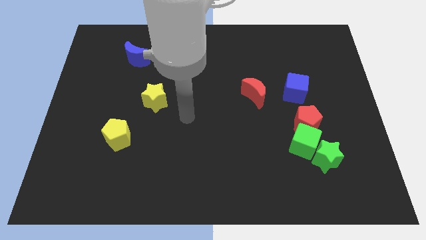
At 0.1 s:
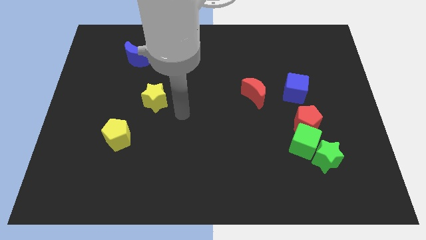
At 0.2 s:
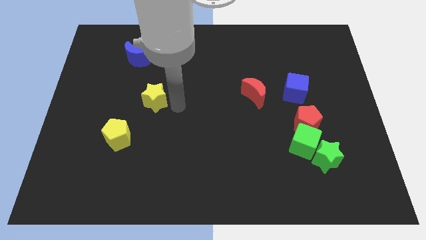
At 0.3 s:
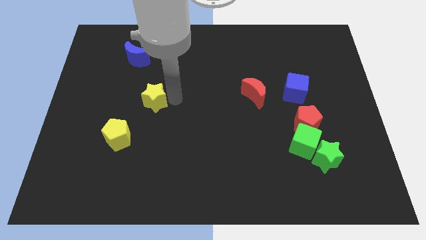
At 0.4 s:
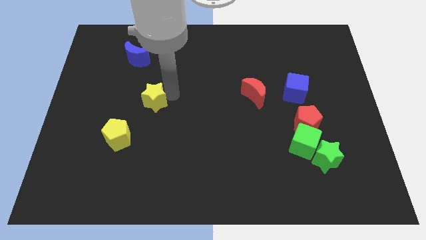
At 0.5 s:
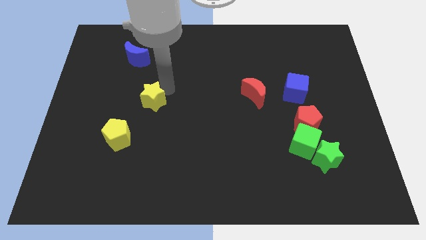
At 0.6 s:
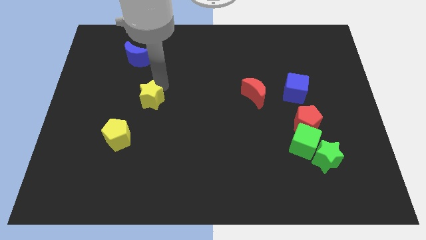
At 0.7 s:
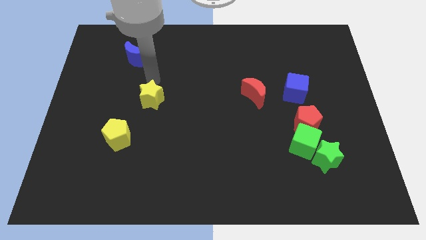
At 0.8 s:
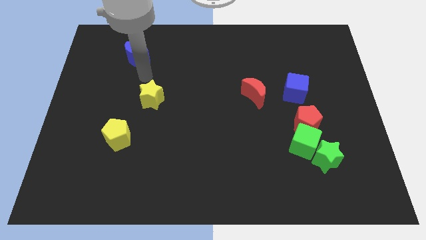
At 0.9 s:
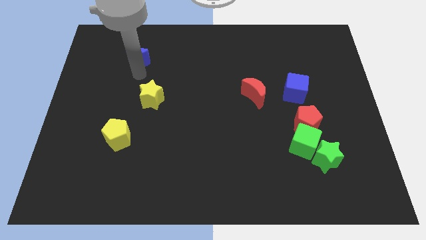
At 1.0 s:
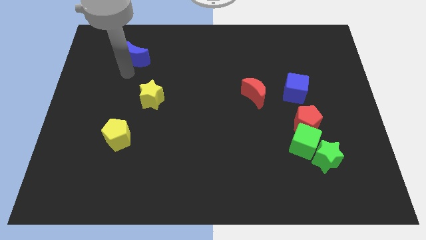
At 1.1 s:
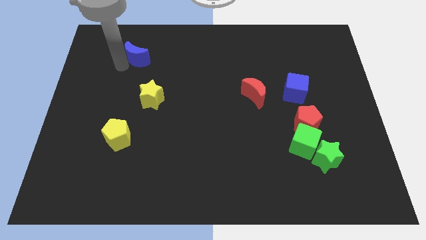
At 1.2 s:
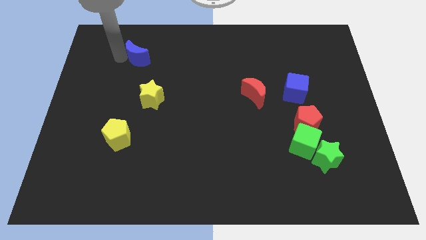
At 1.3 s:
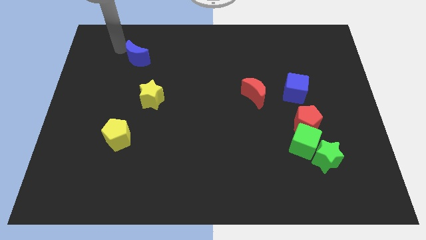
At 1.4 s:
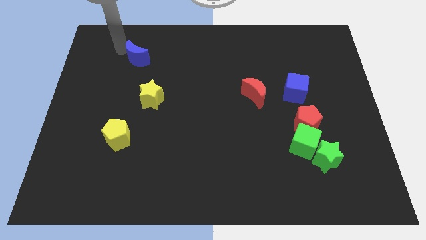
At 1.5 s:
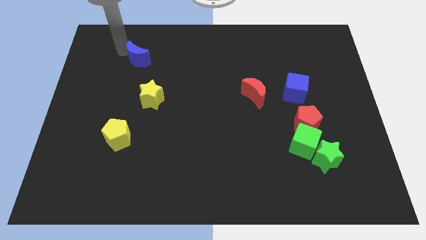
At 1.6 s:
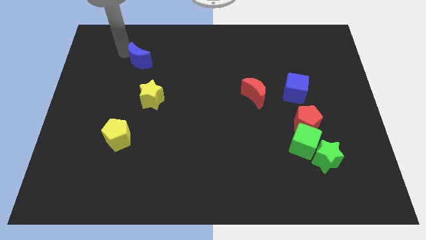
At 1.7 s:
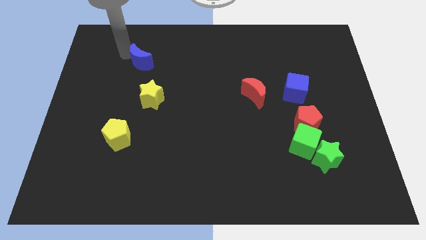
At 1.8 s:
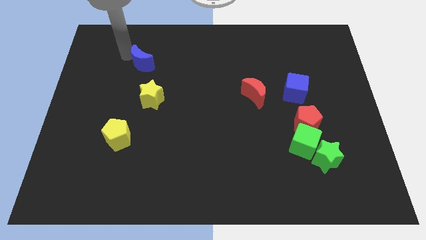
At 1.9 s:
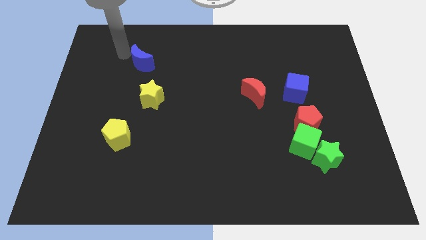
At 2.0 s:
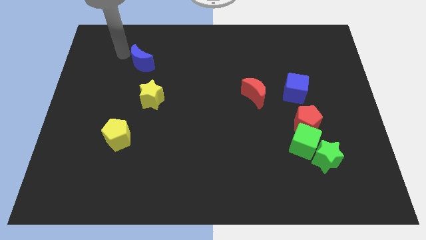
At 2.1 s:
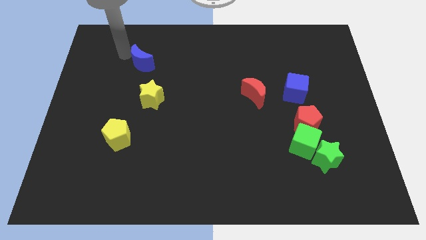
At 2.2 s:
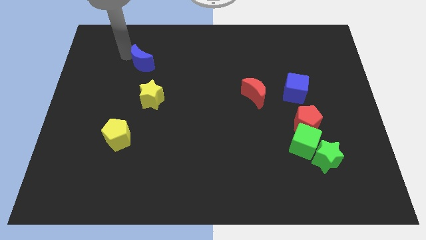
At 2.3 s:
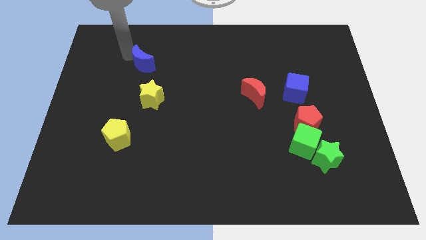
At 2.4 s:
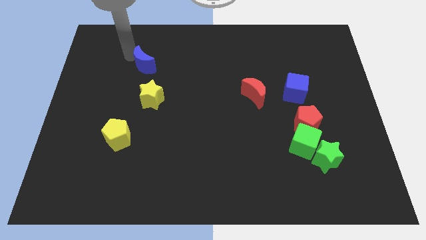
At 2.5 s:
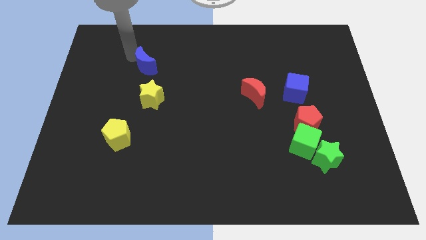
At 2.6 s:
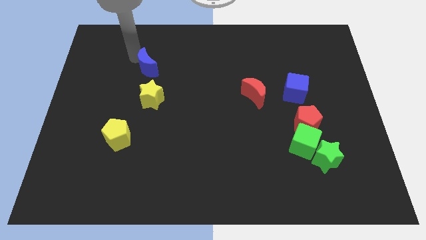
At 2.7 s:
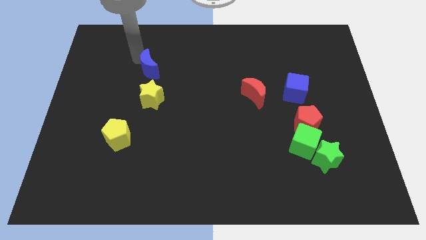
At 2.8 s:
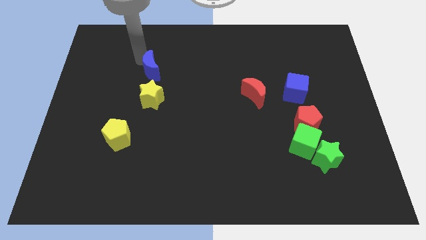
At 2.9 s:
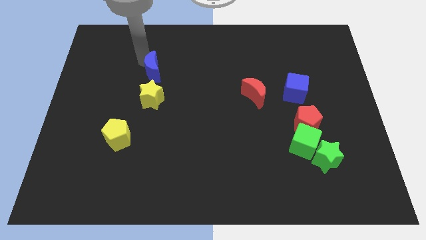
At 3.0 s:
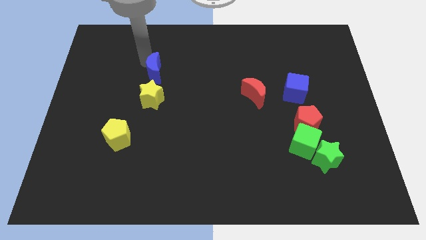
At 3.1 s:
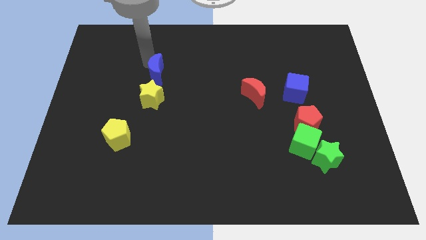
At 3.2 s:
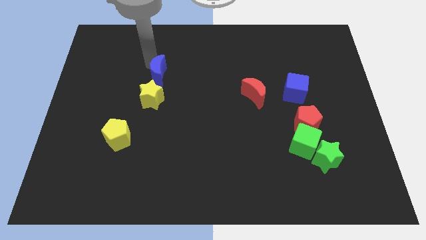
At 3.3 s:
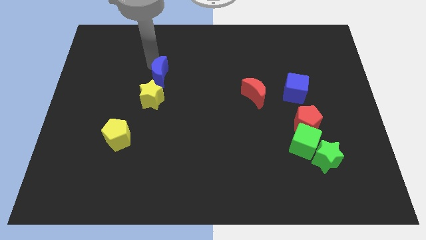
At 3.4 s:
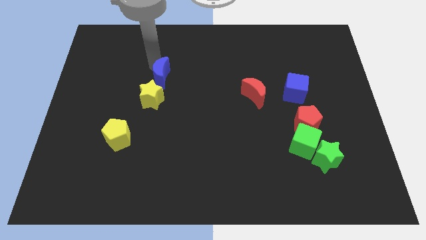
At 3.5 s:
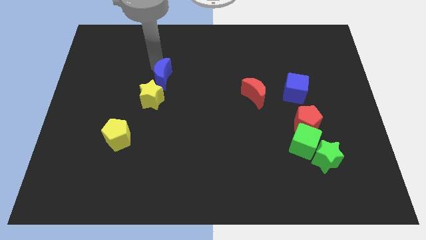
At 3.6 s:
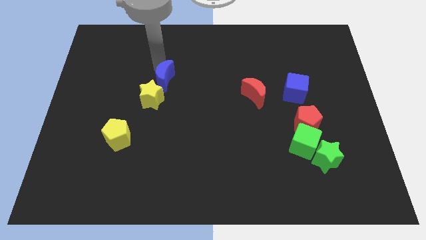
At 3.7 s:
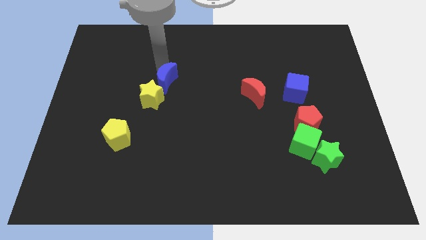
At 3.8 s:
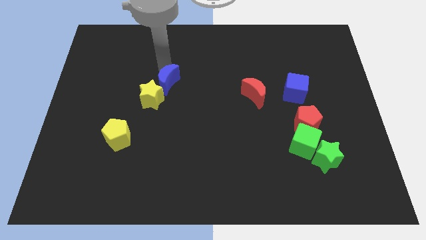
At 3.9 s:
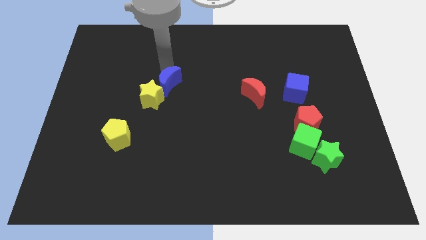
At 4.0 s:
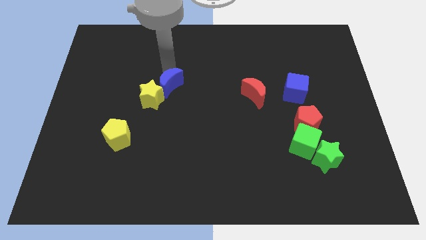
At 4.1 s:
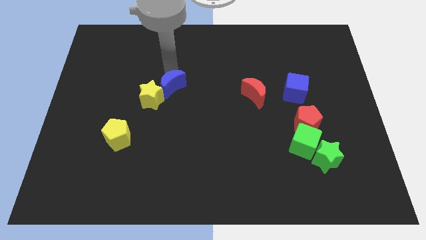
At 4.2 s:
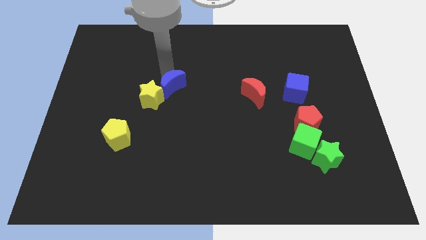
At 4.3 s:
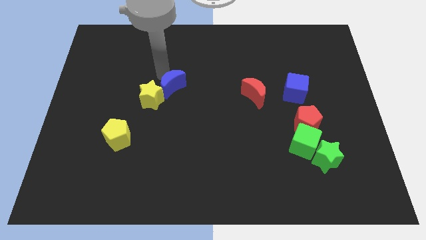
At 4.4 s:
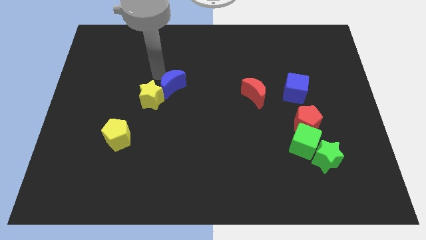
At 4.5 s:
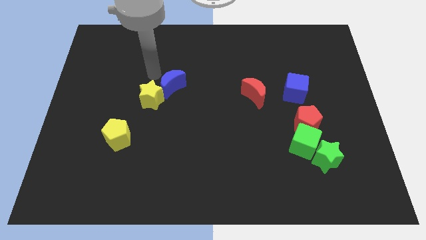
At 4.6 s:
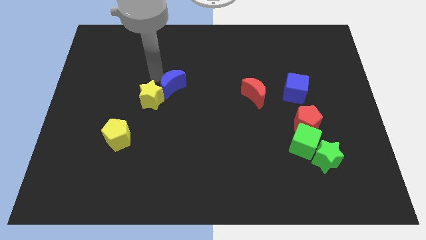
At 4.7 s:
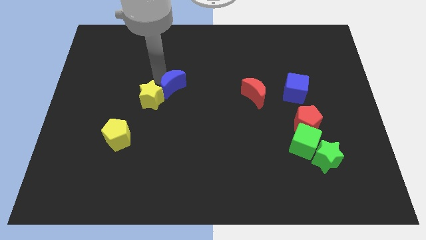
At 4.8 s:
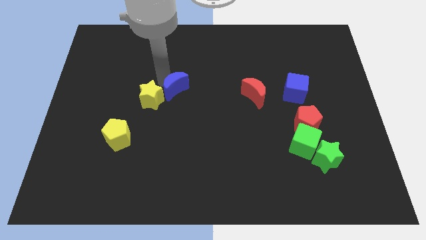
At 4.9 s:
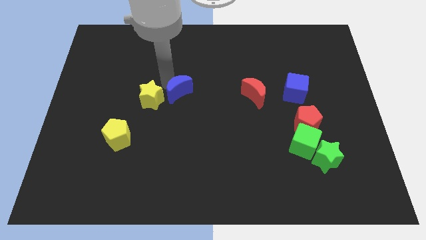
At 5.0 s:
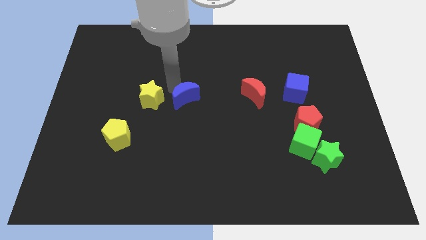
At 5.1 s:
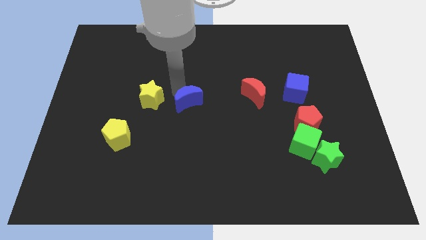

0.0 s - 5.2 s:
push the blue moon downwards and to the right

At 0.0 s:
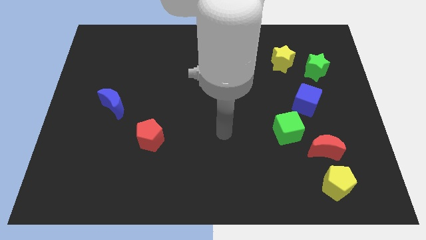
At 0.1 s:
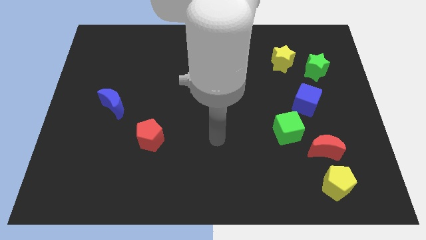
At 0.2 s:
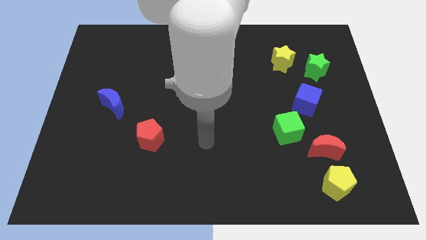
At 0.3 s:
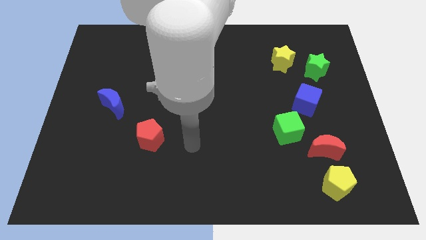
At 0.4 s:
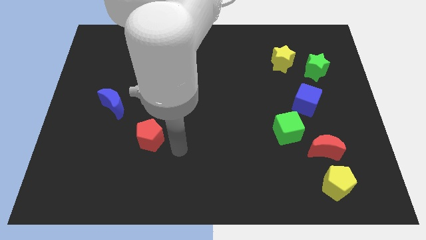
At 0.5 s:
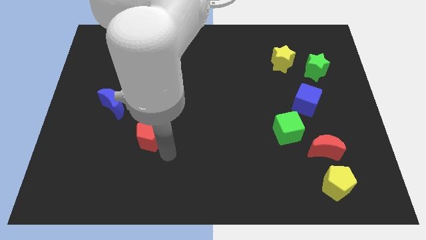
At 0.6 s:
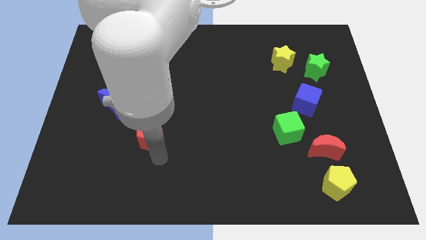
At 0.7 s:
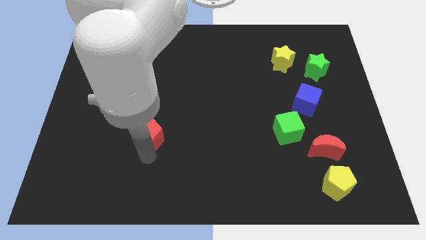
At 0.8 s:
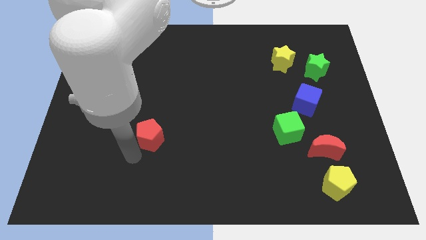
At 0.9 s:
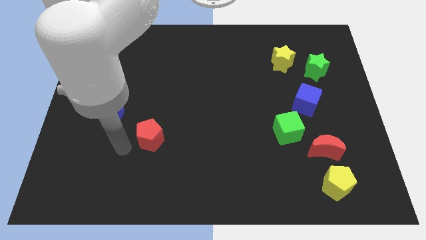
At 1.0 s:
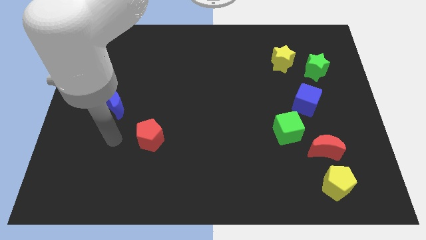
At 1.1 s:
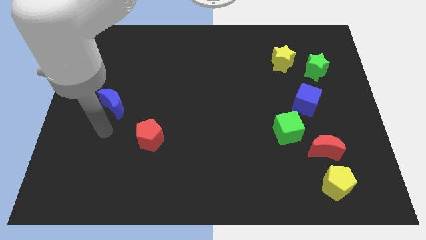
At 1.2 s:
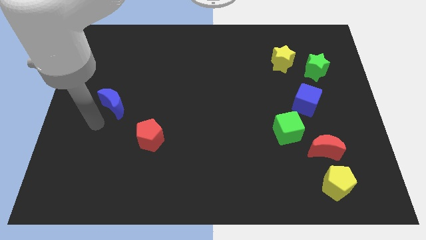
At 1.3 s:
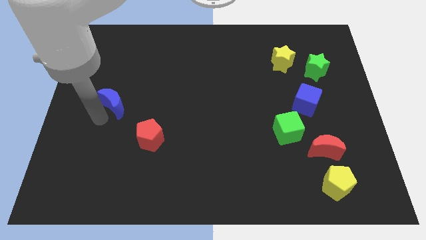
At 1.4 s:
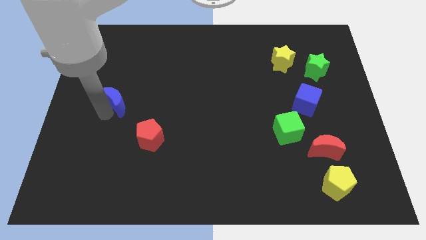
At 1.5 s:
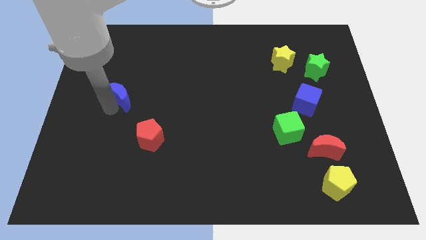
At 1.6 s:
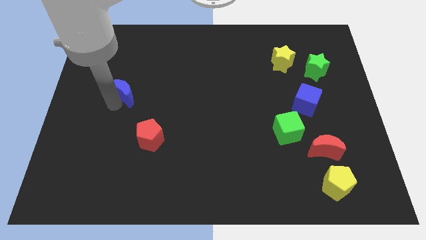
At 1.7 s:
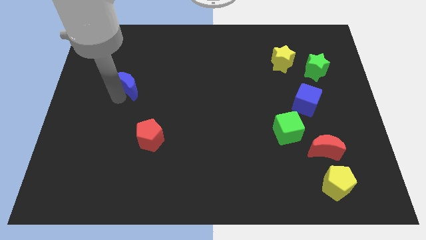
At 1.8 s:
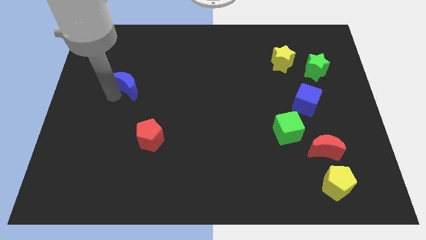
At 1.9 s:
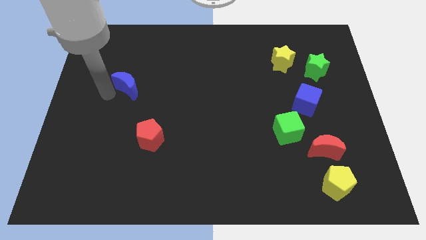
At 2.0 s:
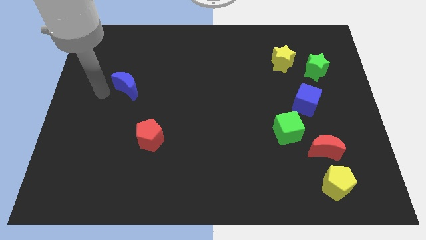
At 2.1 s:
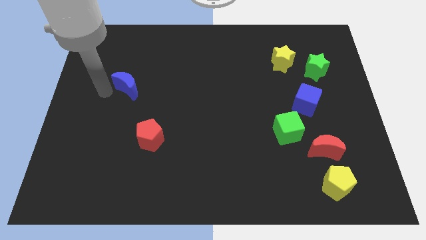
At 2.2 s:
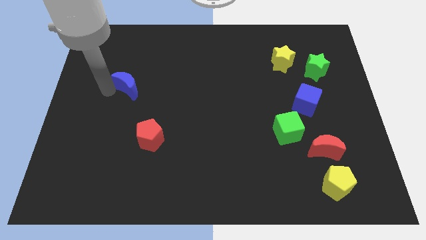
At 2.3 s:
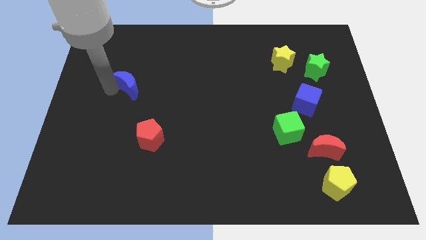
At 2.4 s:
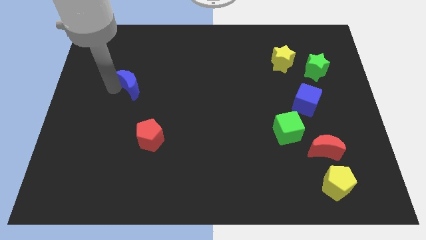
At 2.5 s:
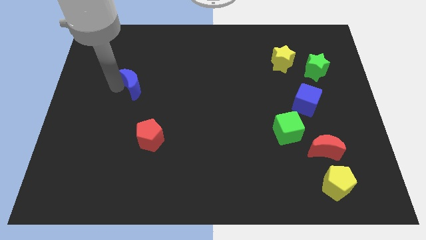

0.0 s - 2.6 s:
push the blue moon upwards and then right a little bit
